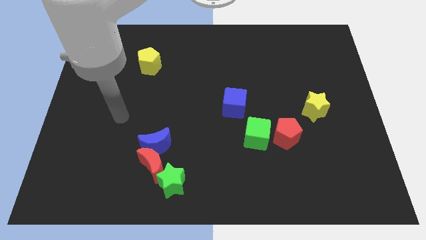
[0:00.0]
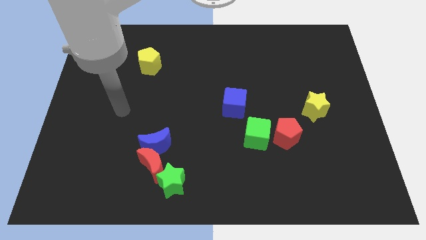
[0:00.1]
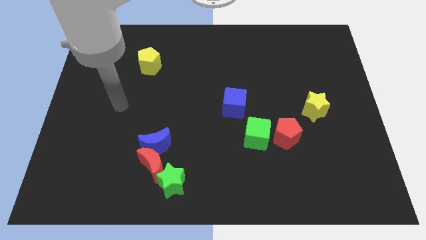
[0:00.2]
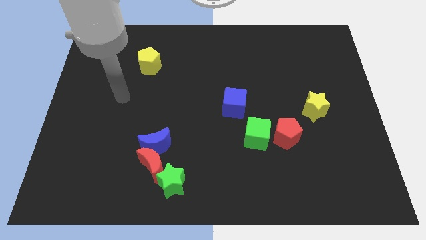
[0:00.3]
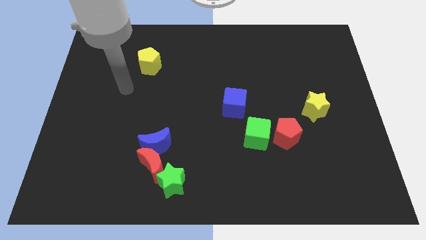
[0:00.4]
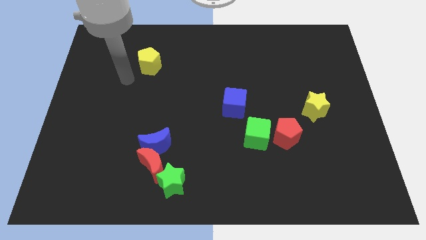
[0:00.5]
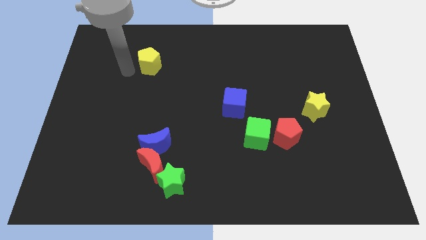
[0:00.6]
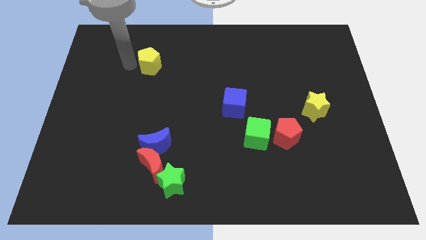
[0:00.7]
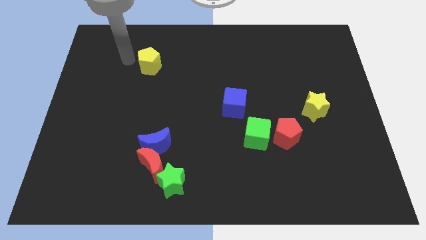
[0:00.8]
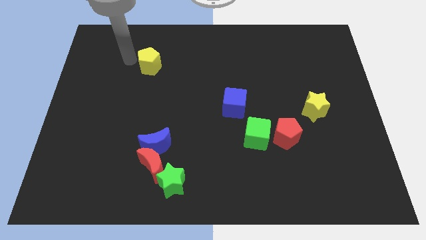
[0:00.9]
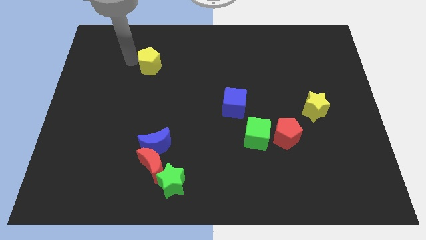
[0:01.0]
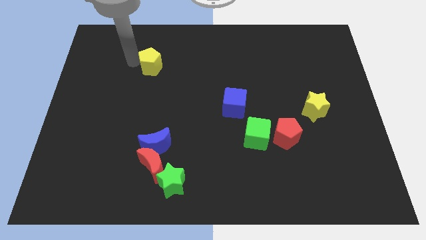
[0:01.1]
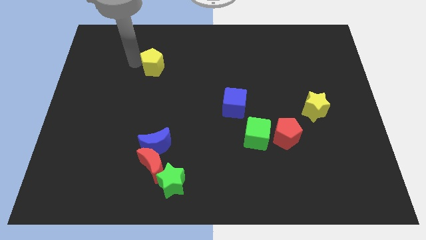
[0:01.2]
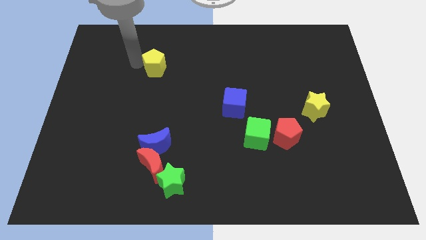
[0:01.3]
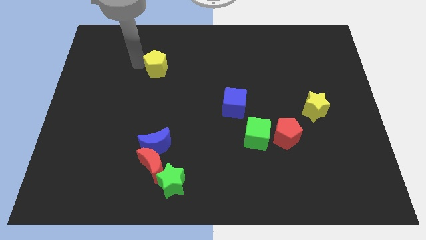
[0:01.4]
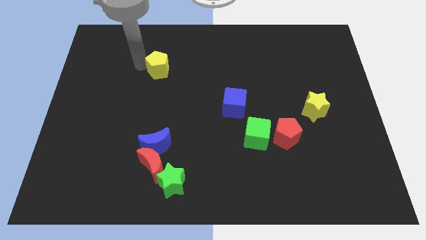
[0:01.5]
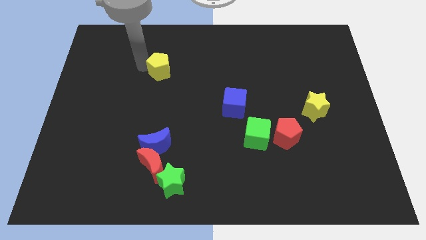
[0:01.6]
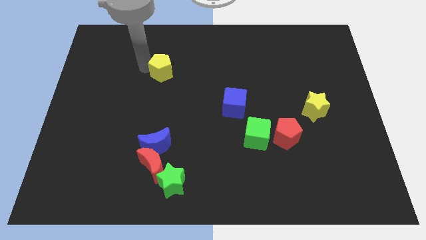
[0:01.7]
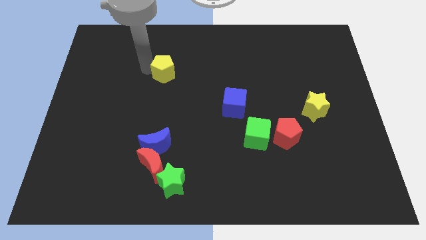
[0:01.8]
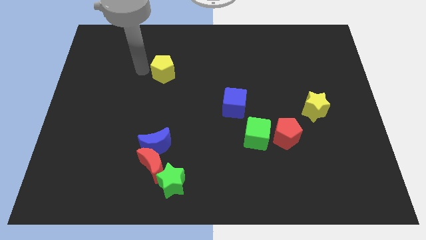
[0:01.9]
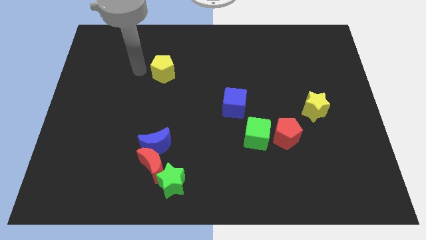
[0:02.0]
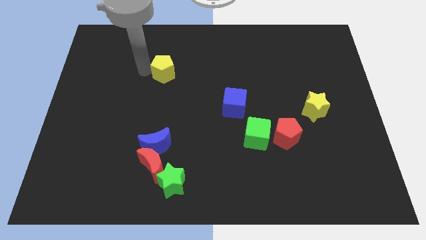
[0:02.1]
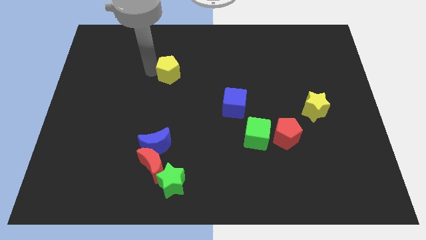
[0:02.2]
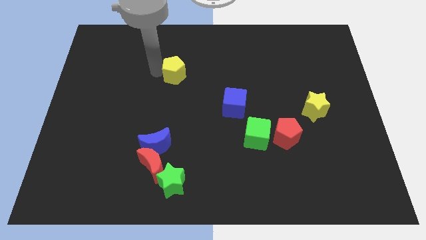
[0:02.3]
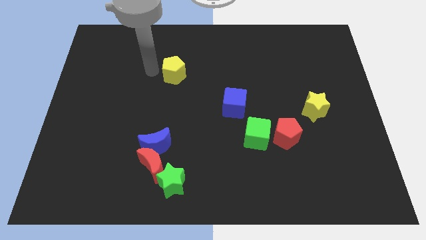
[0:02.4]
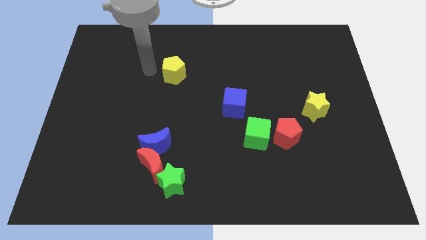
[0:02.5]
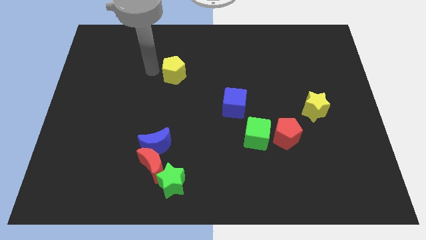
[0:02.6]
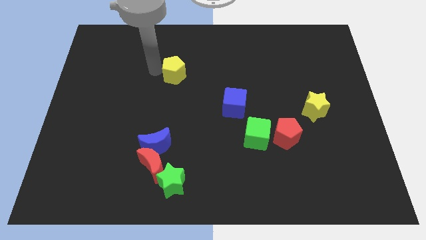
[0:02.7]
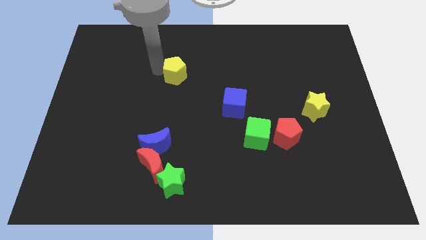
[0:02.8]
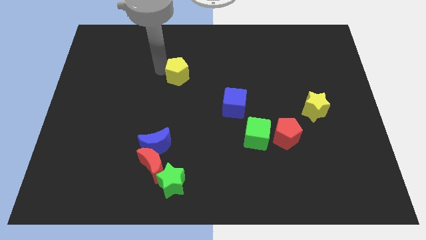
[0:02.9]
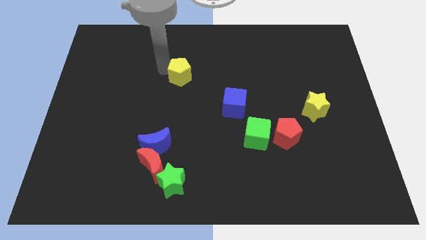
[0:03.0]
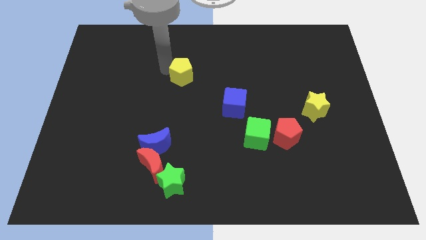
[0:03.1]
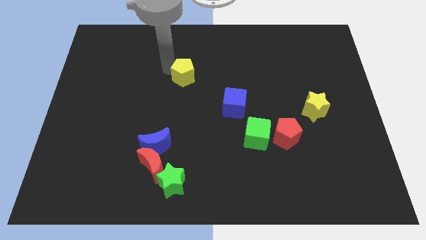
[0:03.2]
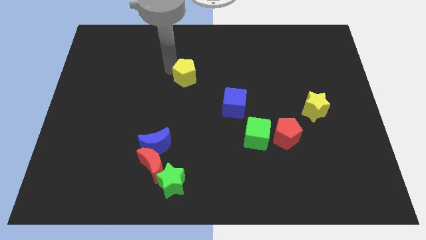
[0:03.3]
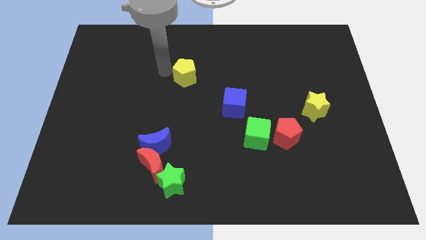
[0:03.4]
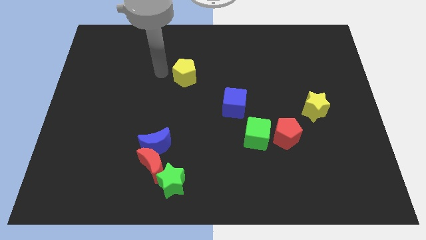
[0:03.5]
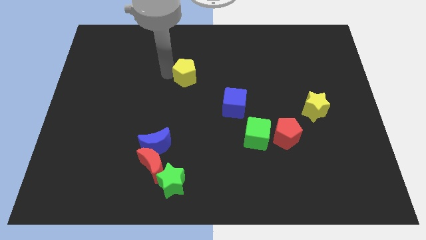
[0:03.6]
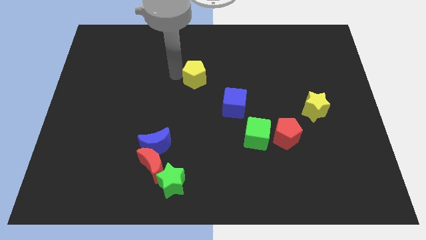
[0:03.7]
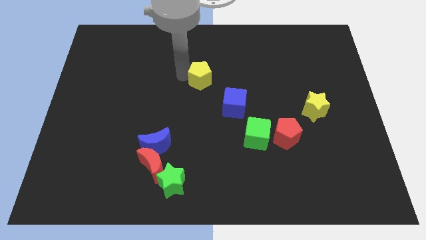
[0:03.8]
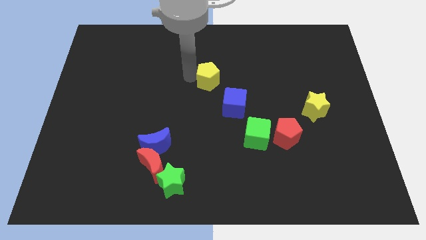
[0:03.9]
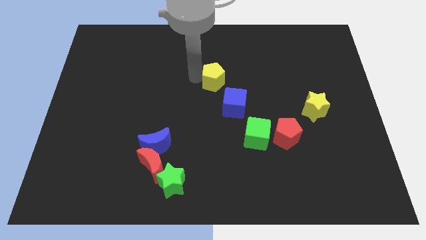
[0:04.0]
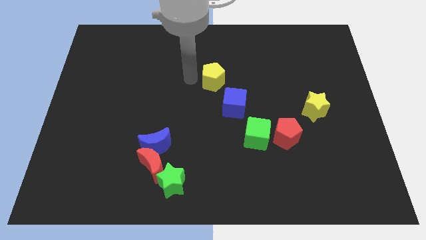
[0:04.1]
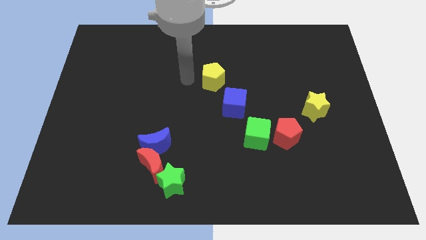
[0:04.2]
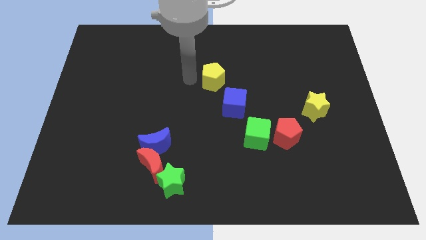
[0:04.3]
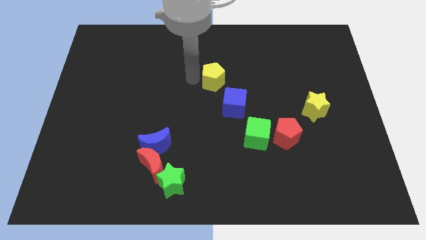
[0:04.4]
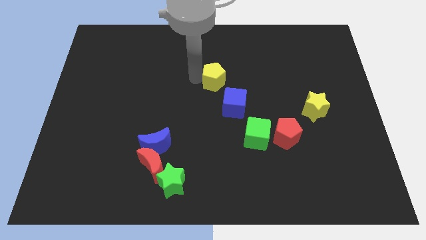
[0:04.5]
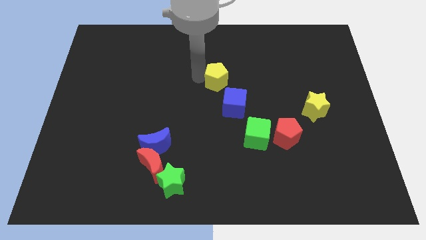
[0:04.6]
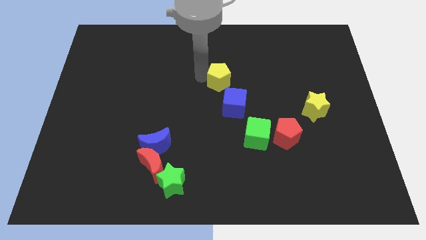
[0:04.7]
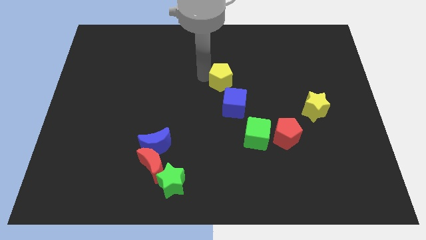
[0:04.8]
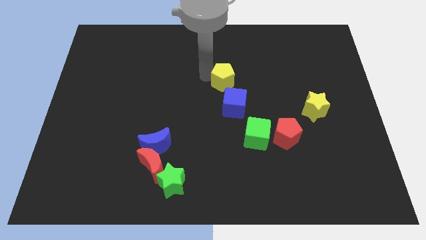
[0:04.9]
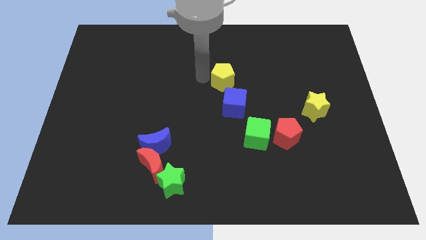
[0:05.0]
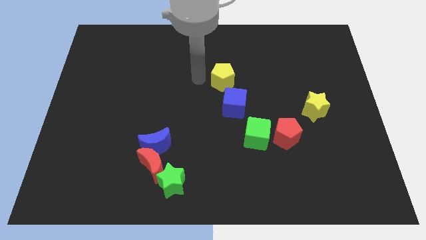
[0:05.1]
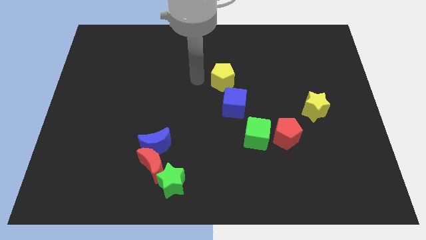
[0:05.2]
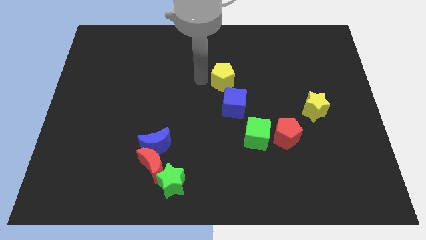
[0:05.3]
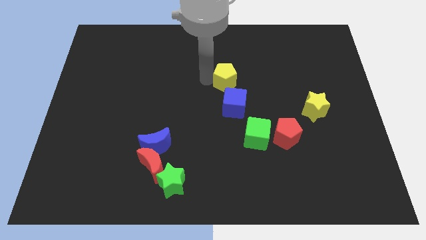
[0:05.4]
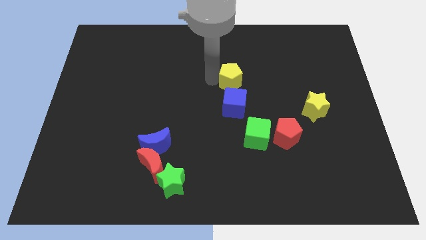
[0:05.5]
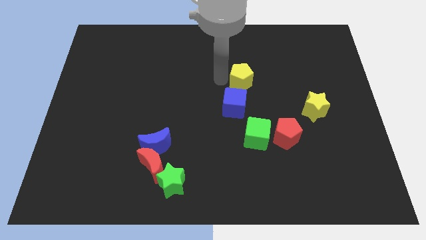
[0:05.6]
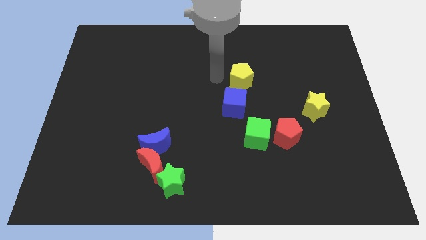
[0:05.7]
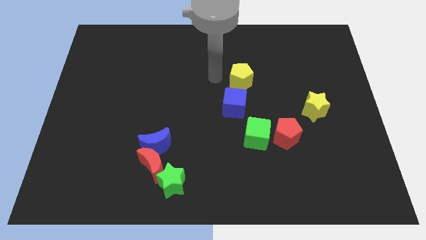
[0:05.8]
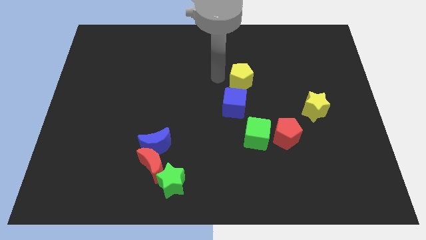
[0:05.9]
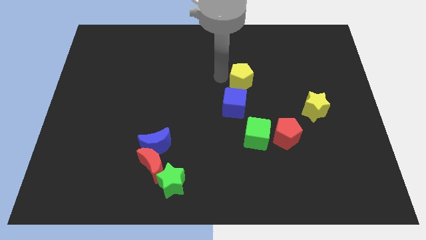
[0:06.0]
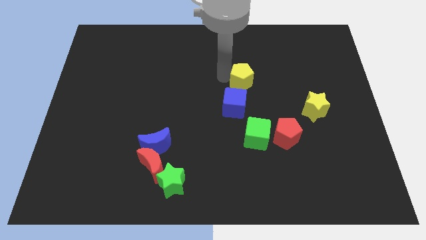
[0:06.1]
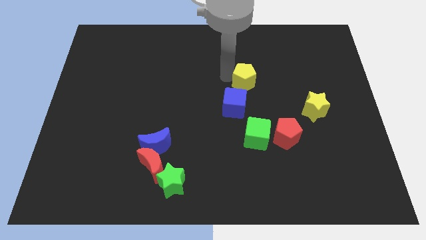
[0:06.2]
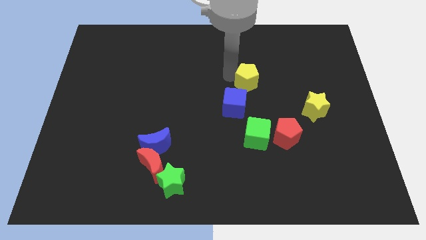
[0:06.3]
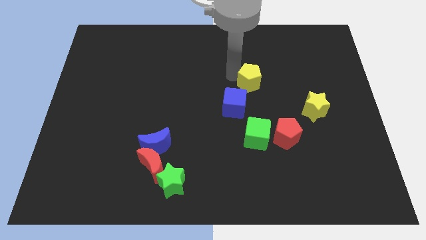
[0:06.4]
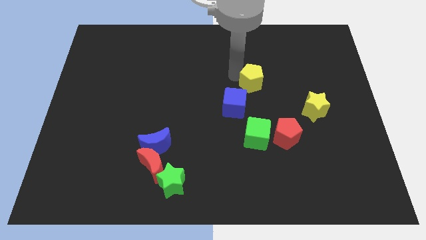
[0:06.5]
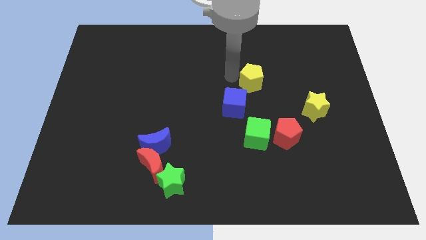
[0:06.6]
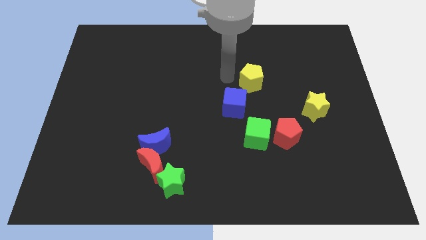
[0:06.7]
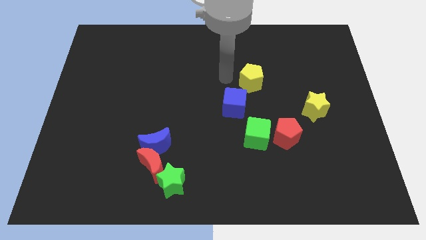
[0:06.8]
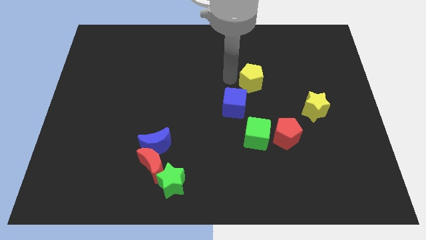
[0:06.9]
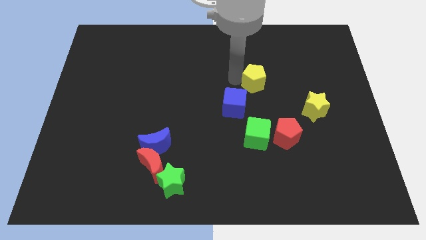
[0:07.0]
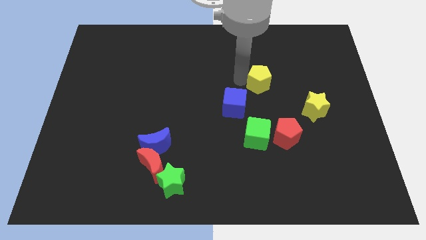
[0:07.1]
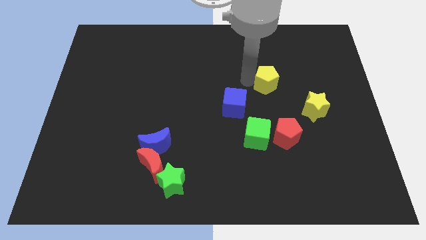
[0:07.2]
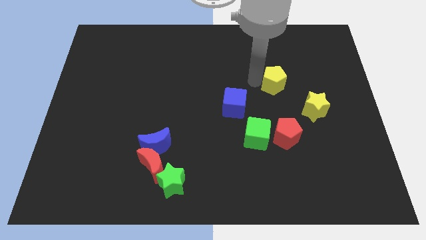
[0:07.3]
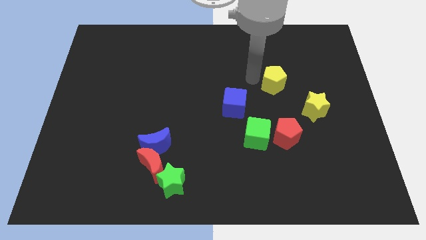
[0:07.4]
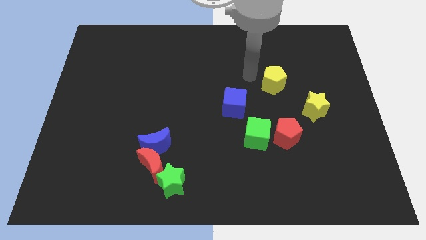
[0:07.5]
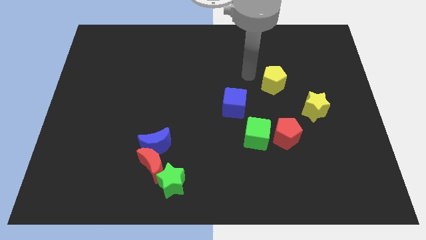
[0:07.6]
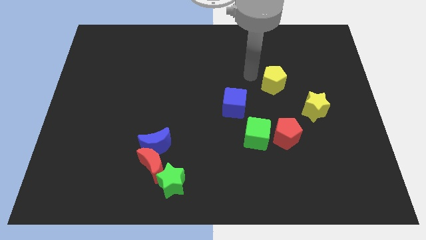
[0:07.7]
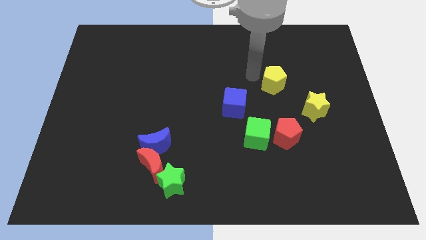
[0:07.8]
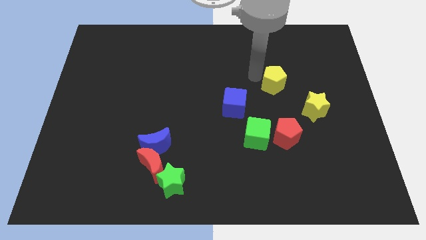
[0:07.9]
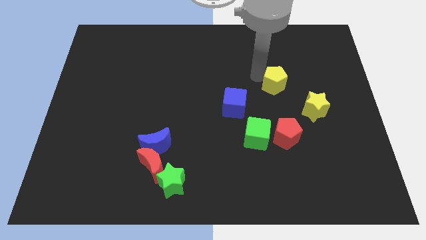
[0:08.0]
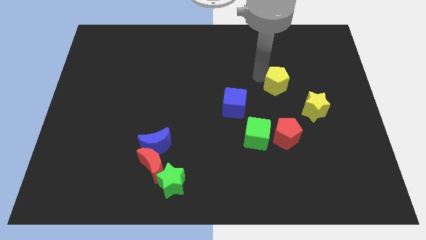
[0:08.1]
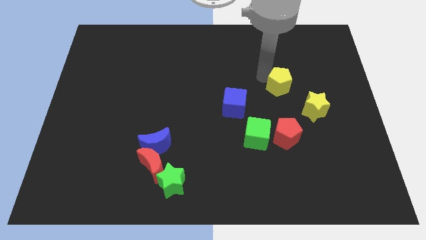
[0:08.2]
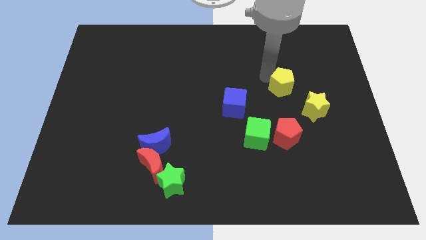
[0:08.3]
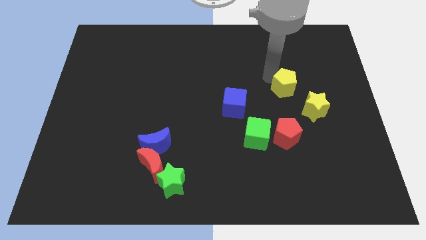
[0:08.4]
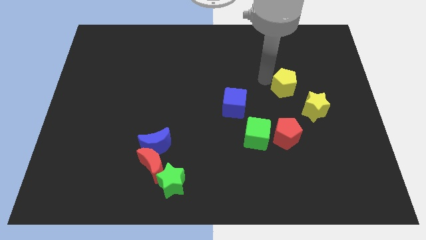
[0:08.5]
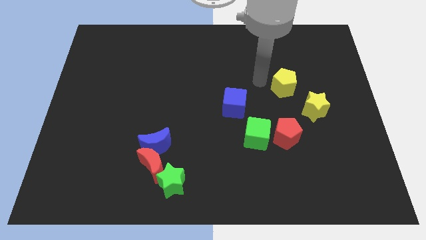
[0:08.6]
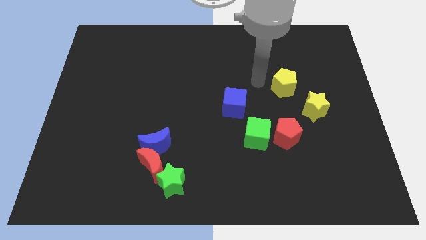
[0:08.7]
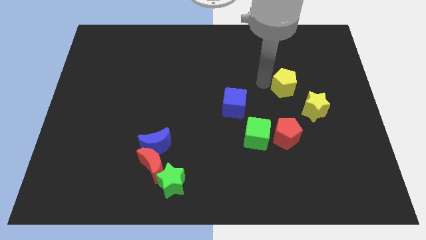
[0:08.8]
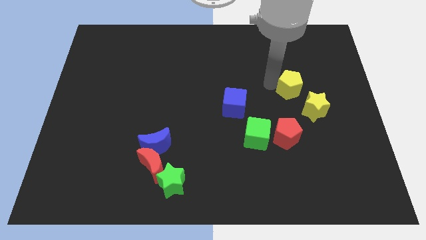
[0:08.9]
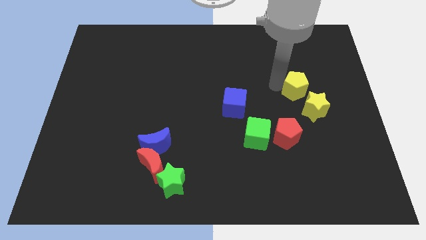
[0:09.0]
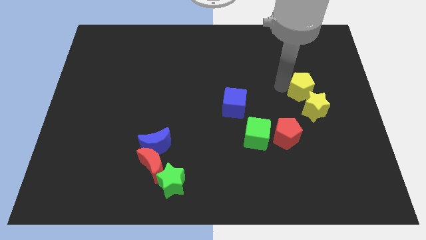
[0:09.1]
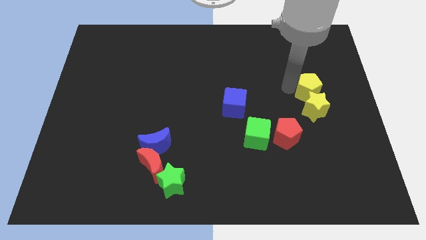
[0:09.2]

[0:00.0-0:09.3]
move the yellow pentagon to the top right side of the yellow star
